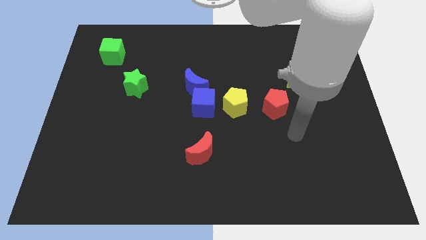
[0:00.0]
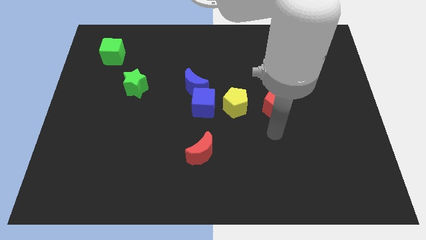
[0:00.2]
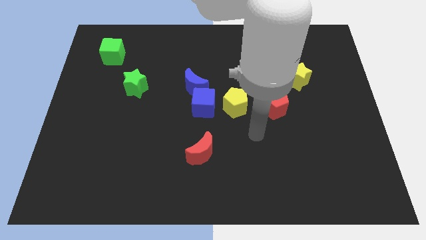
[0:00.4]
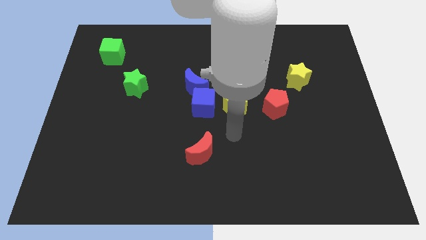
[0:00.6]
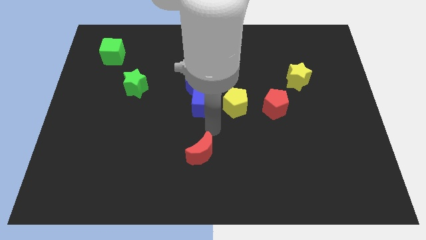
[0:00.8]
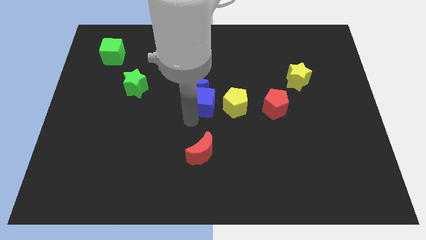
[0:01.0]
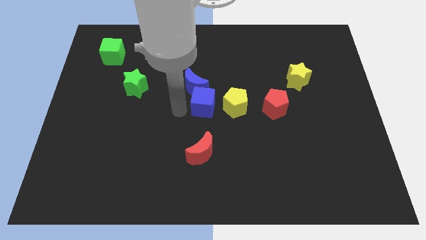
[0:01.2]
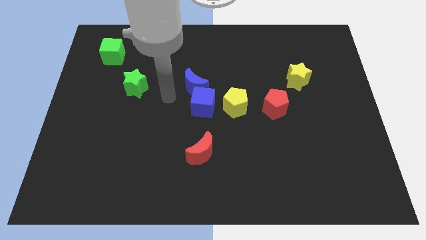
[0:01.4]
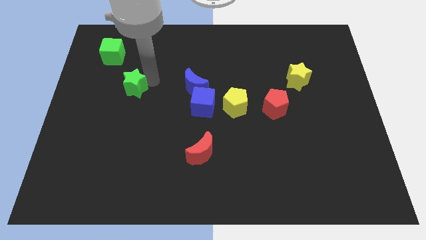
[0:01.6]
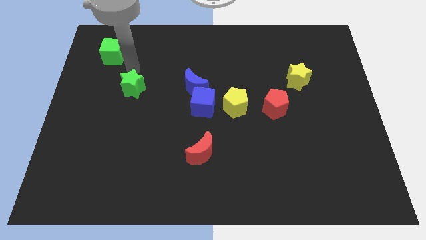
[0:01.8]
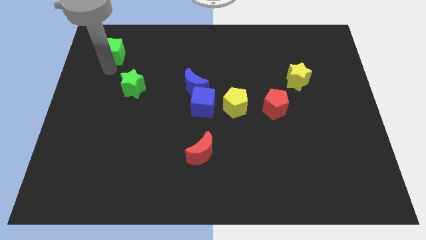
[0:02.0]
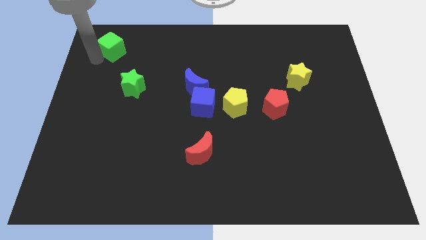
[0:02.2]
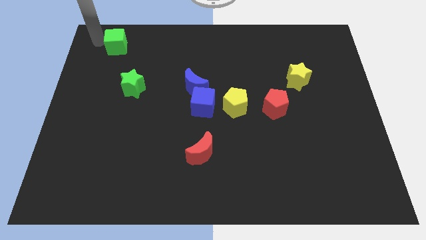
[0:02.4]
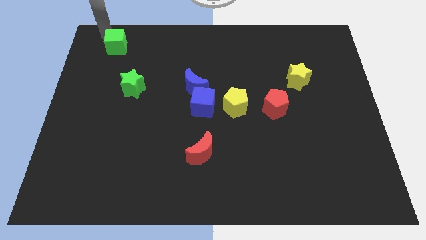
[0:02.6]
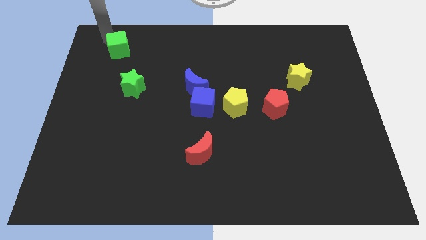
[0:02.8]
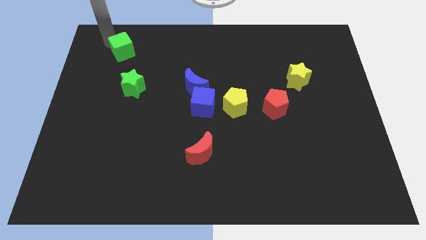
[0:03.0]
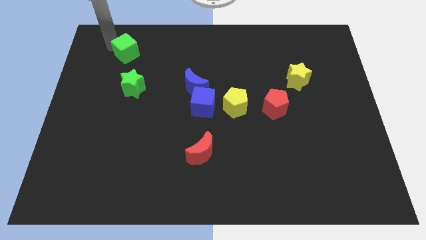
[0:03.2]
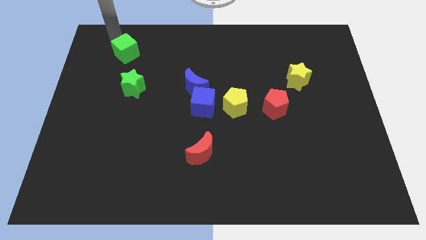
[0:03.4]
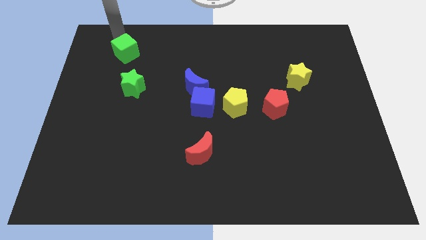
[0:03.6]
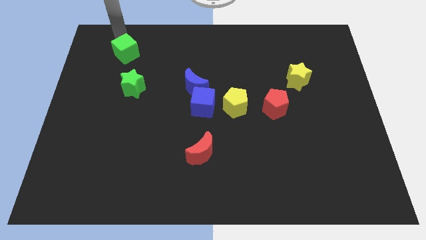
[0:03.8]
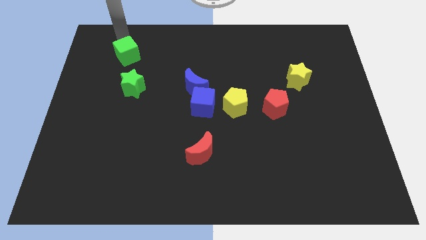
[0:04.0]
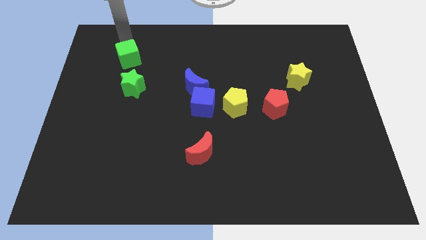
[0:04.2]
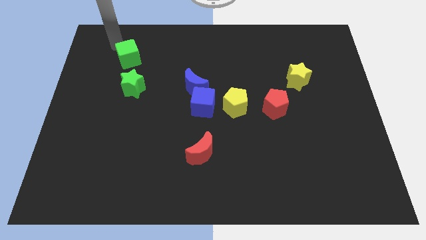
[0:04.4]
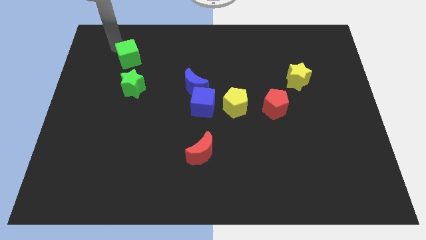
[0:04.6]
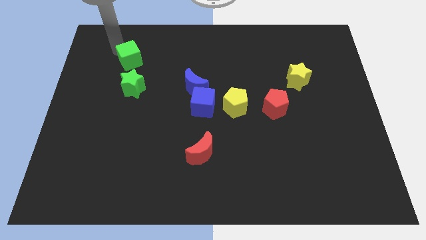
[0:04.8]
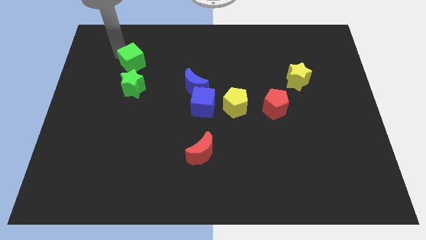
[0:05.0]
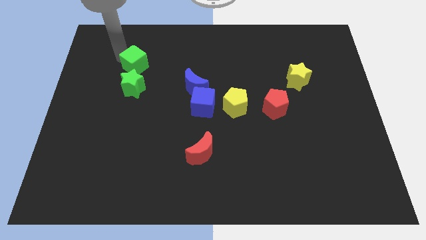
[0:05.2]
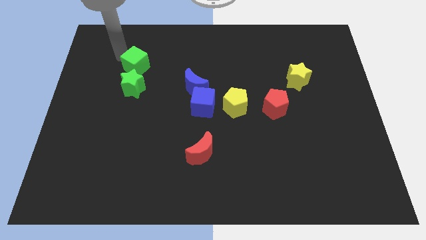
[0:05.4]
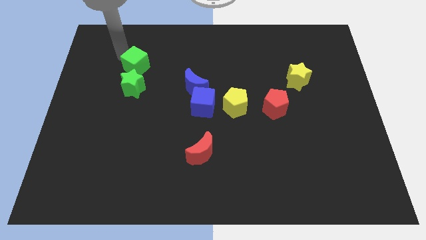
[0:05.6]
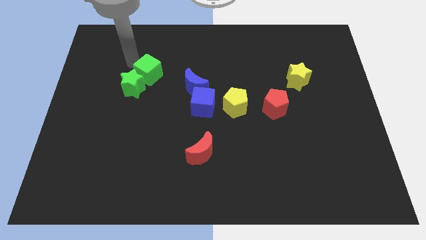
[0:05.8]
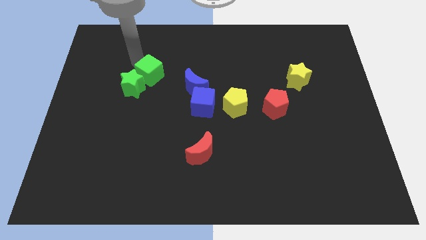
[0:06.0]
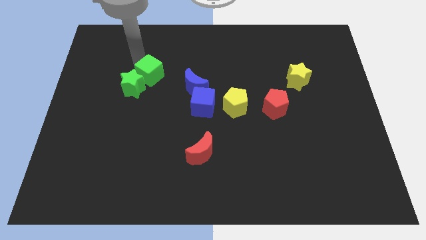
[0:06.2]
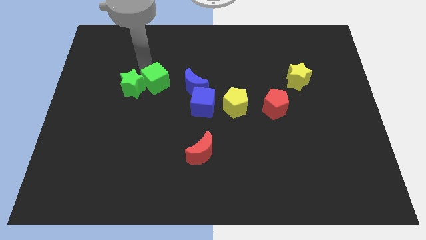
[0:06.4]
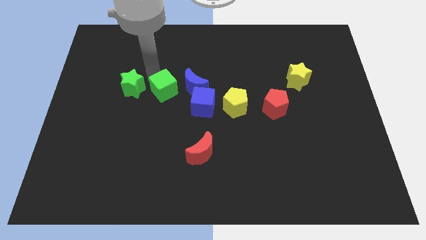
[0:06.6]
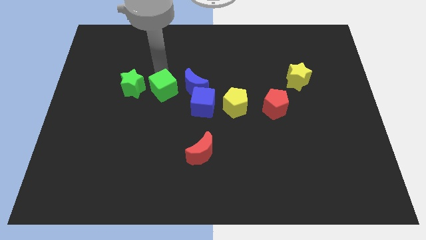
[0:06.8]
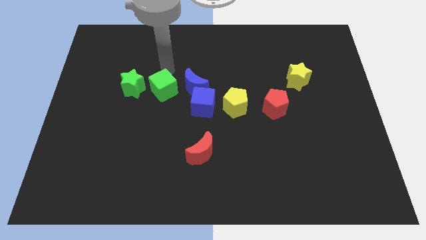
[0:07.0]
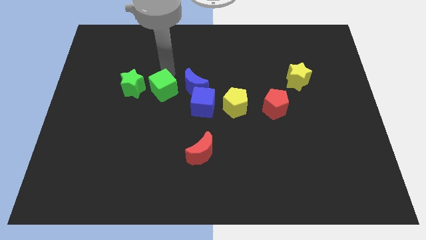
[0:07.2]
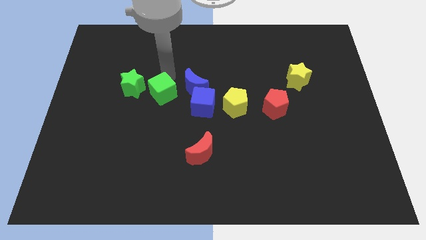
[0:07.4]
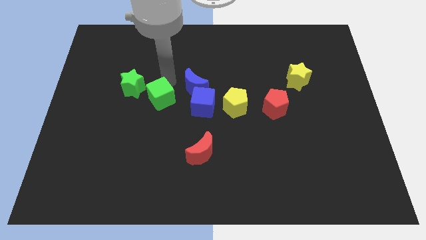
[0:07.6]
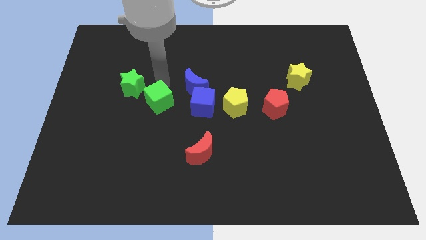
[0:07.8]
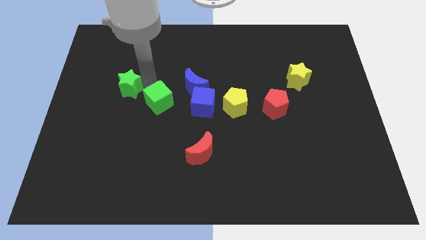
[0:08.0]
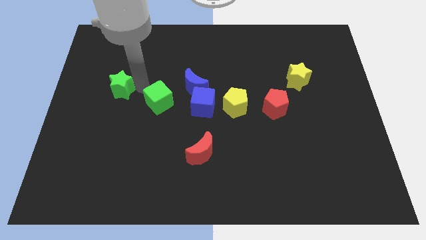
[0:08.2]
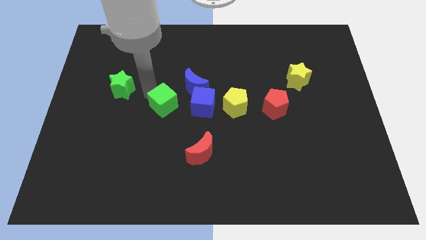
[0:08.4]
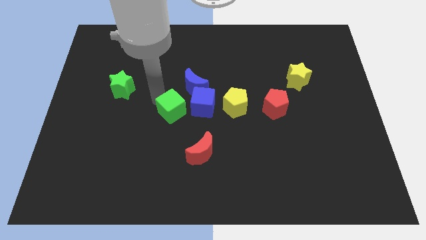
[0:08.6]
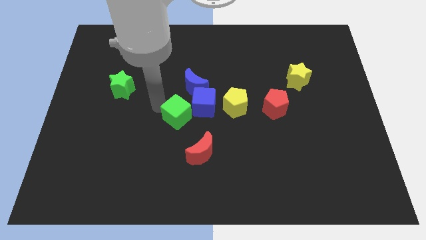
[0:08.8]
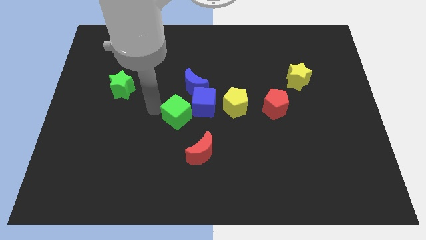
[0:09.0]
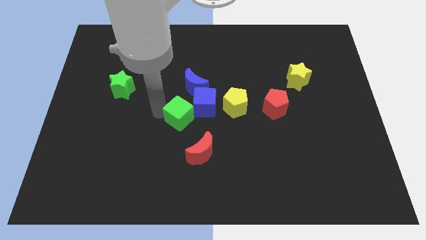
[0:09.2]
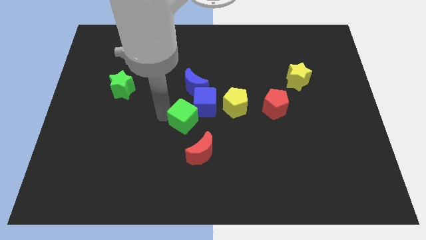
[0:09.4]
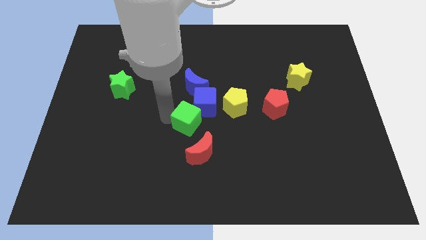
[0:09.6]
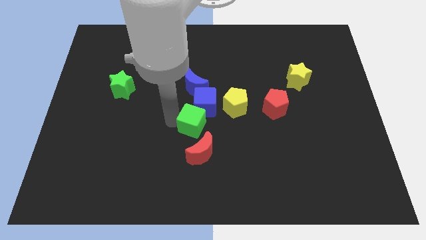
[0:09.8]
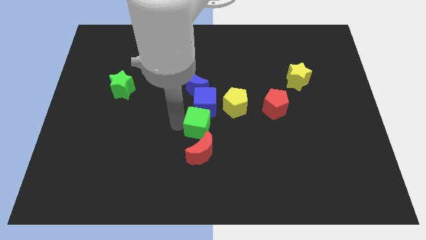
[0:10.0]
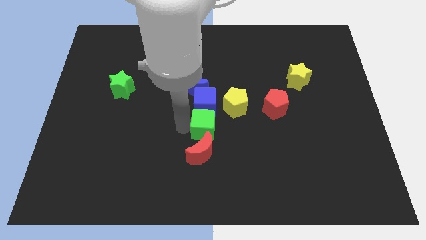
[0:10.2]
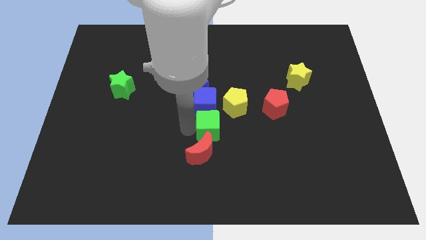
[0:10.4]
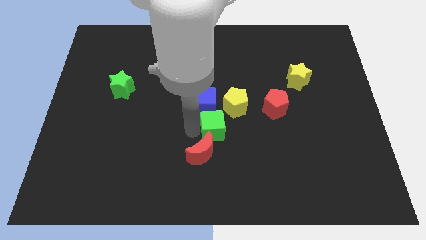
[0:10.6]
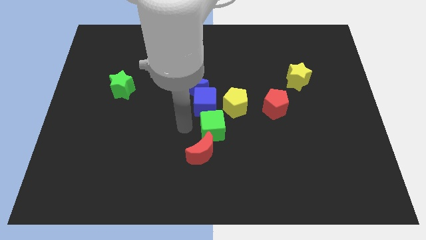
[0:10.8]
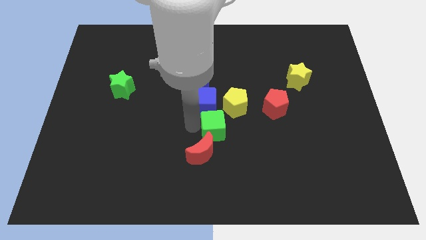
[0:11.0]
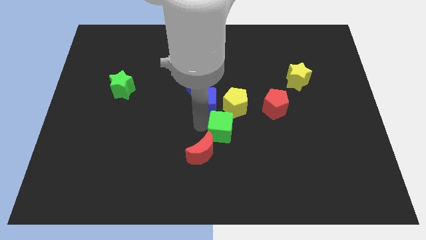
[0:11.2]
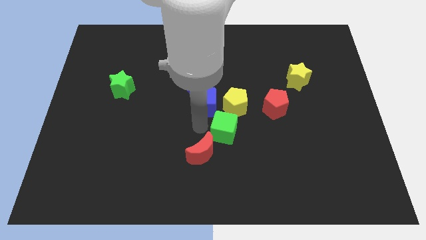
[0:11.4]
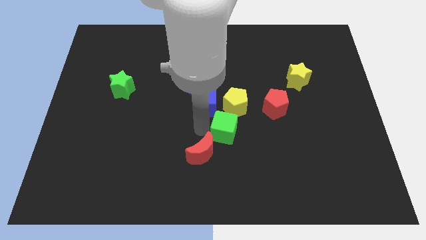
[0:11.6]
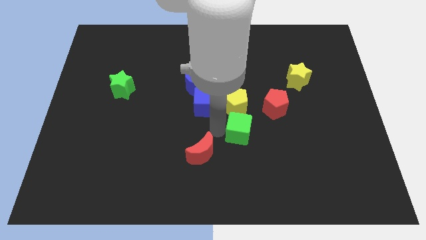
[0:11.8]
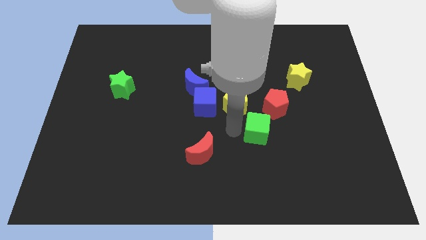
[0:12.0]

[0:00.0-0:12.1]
put the green cube to the bottom side of the red pentagon
